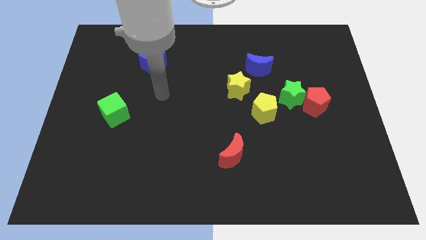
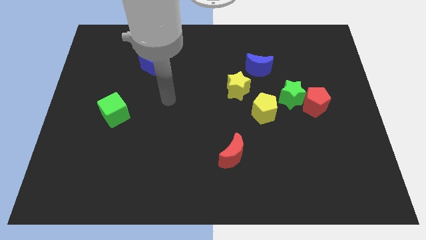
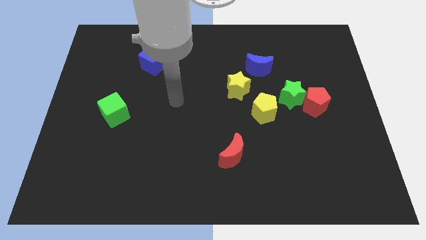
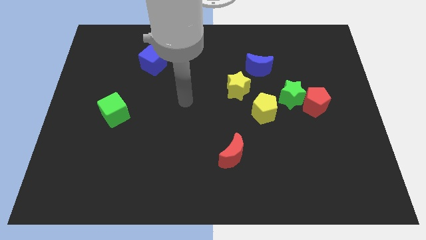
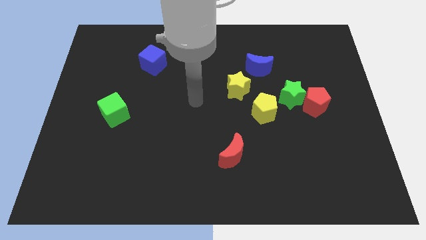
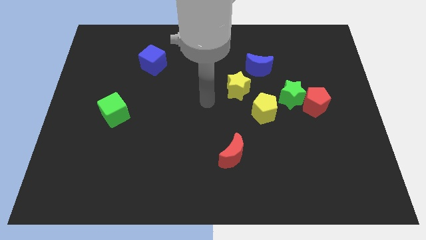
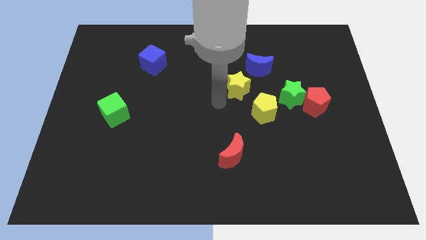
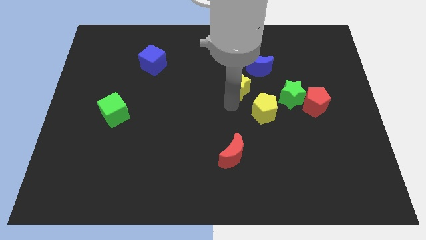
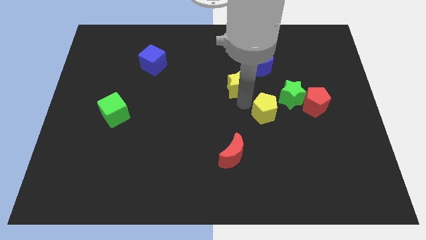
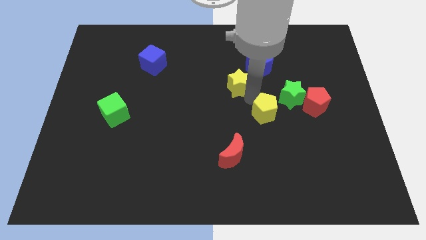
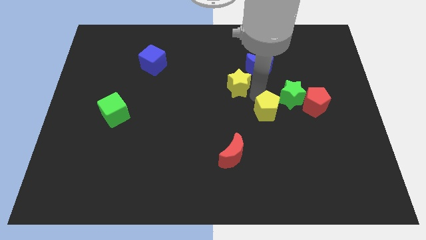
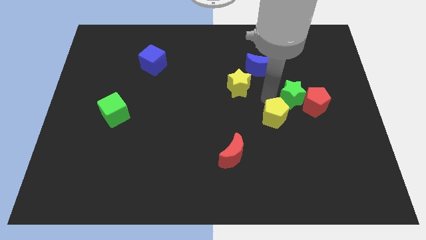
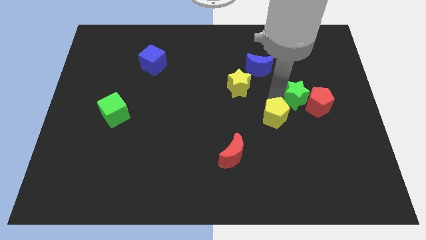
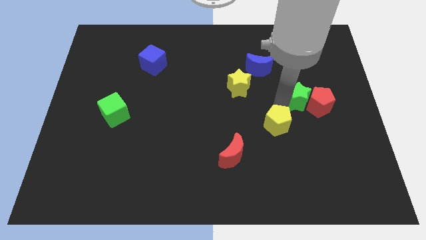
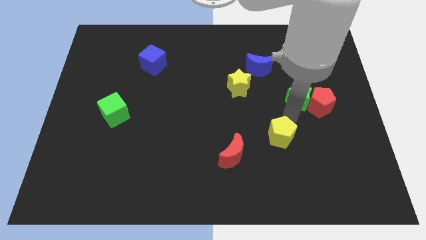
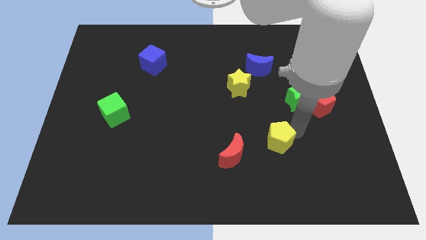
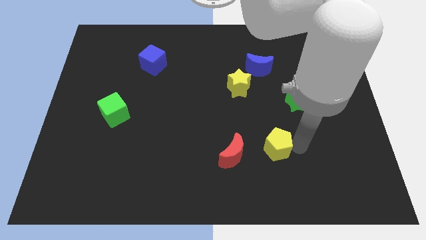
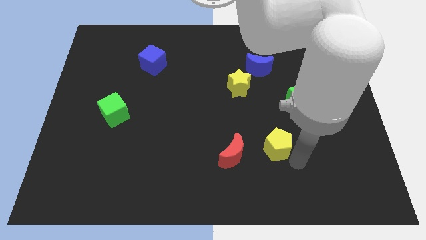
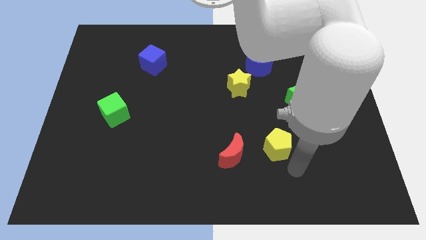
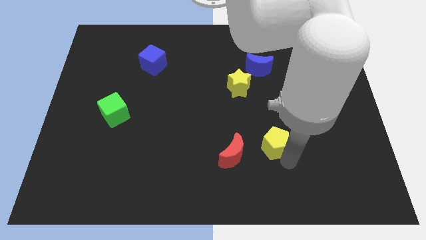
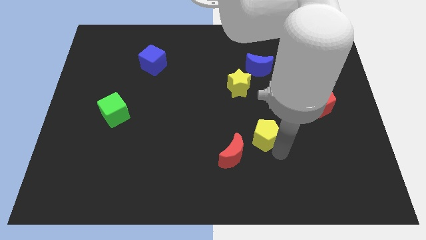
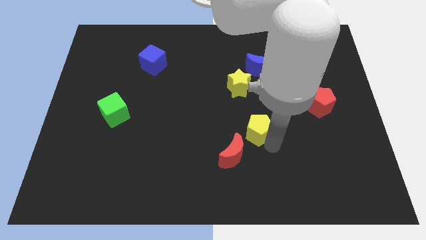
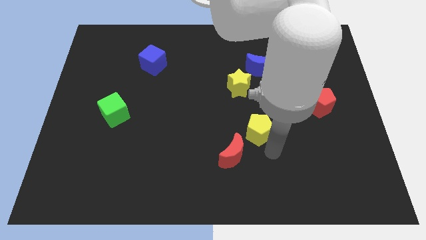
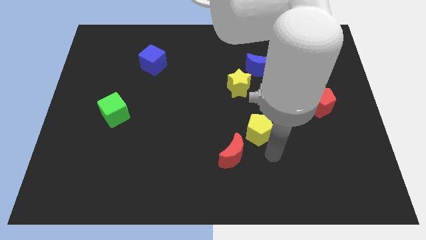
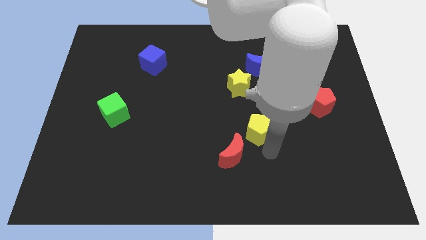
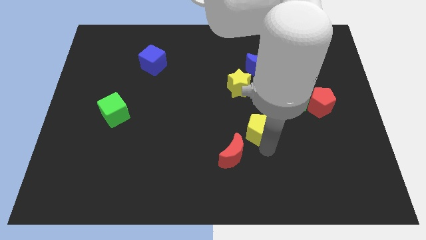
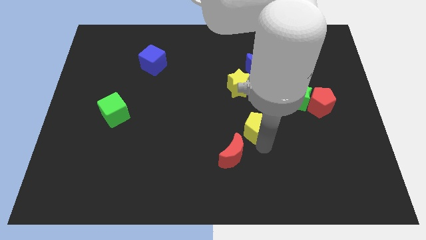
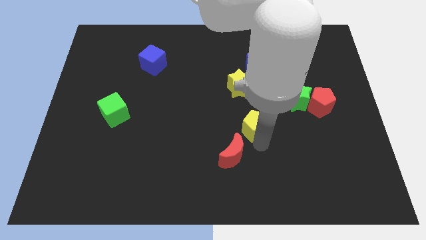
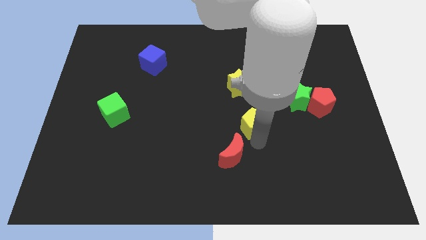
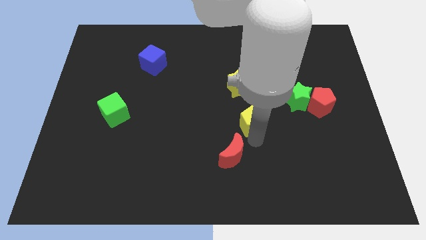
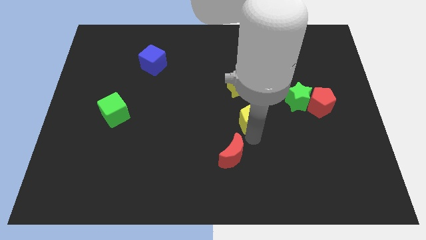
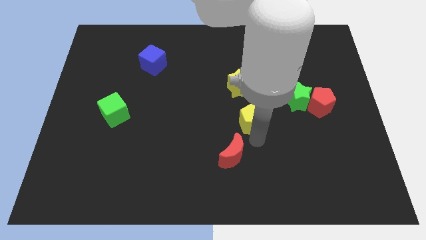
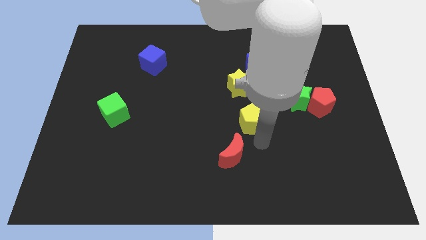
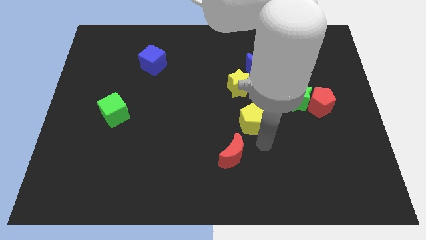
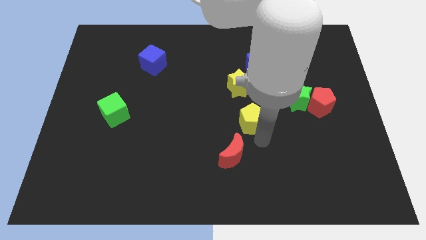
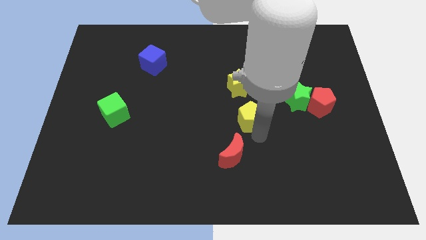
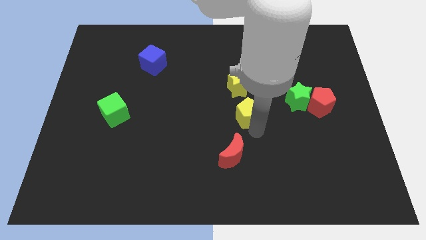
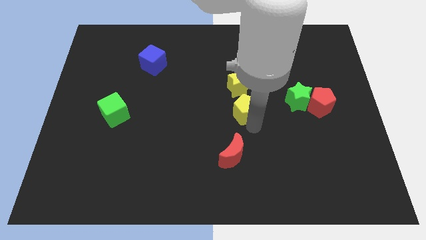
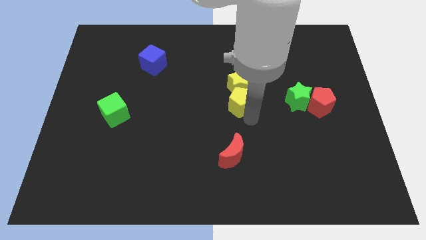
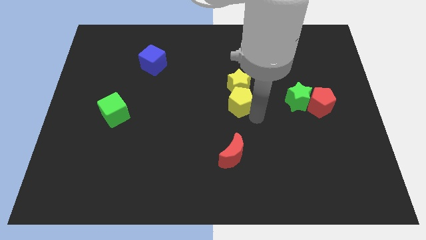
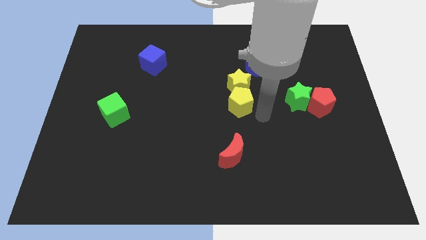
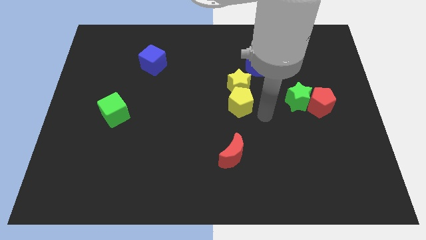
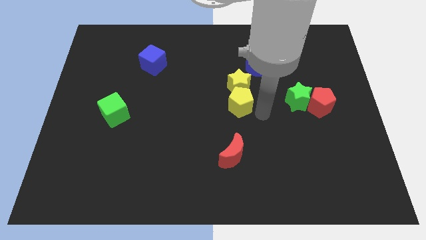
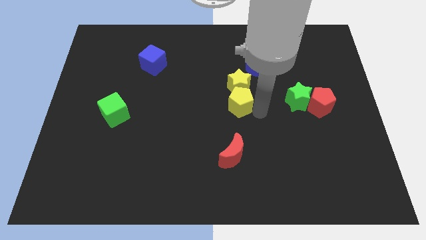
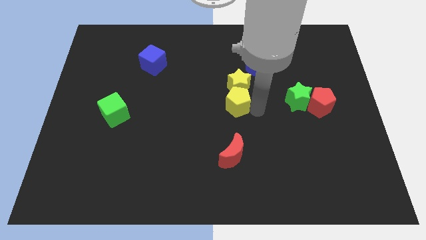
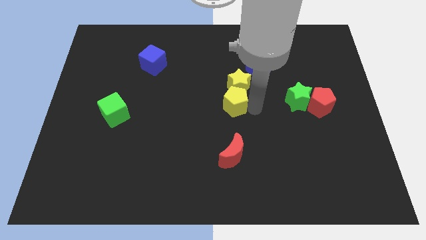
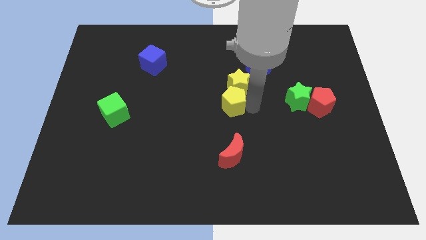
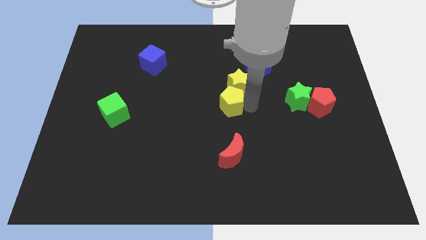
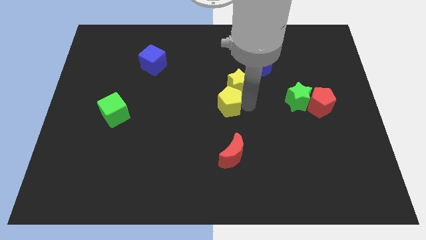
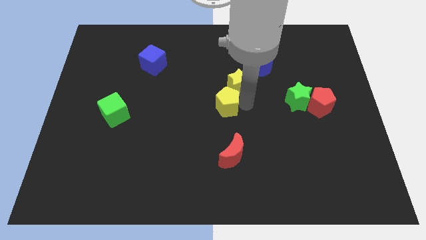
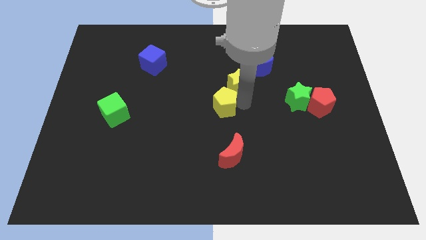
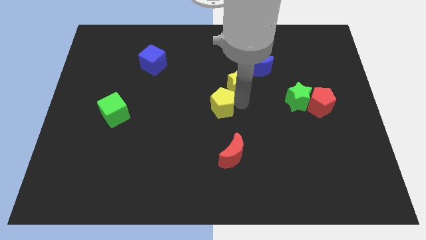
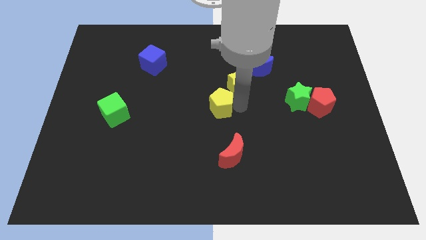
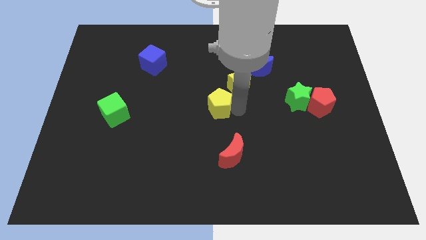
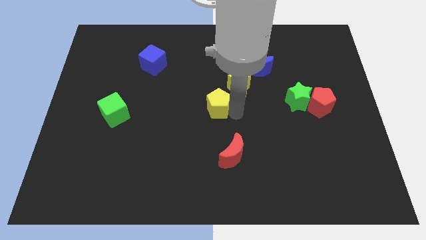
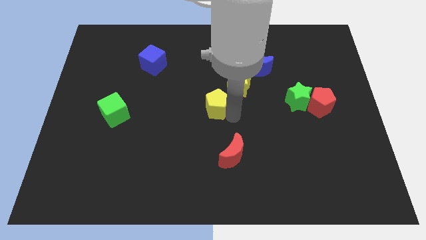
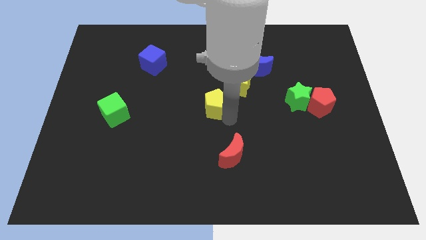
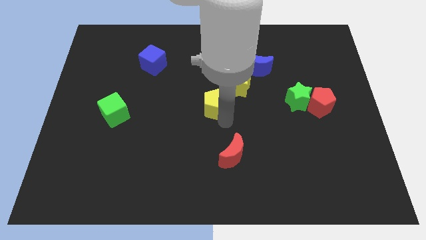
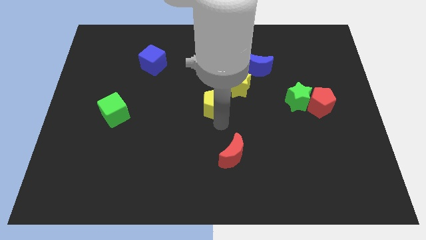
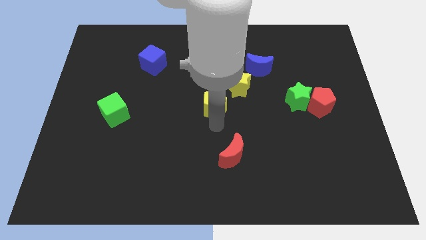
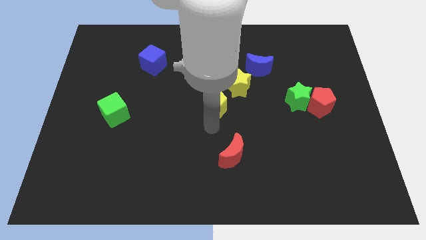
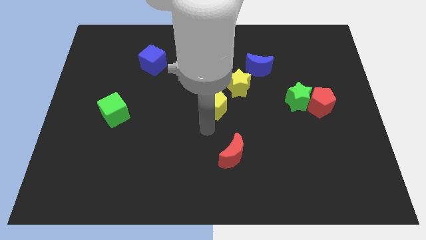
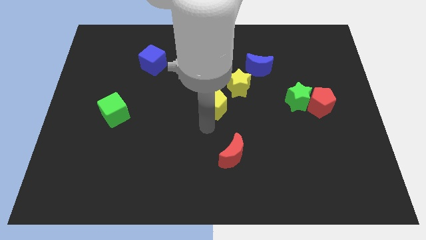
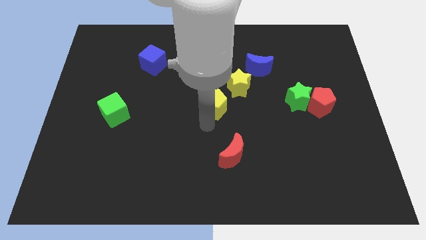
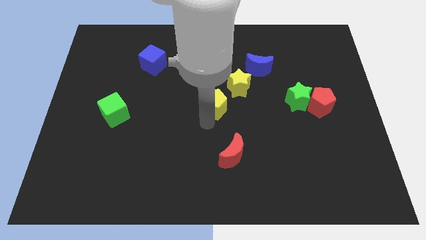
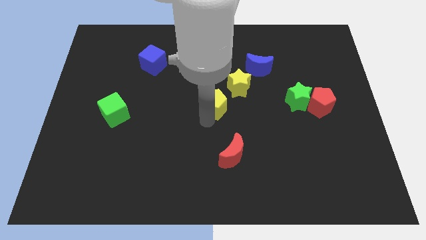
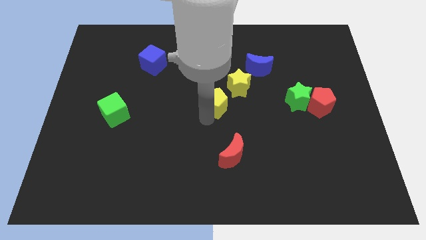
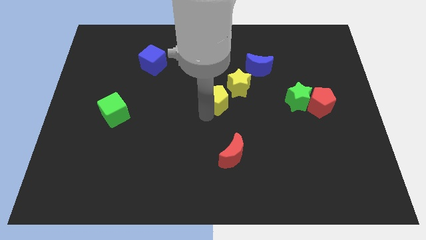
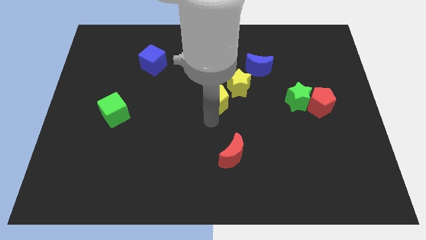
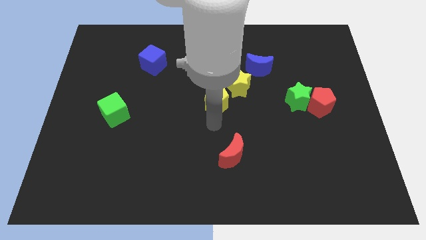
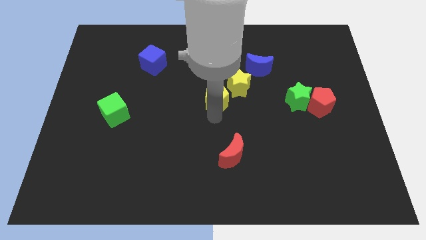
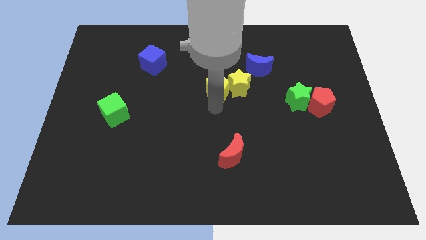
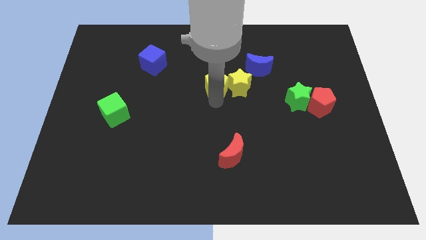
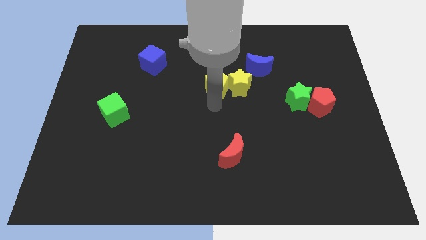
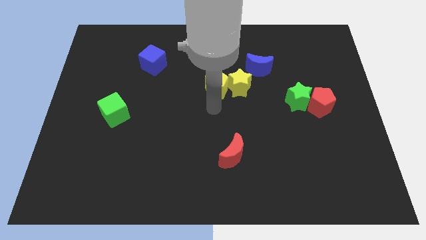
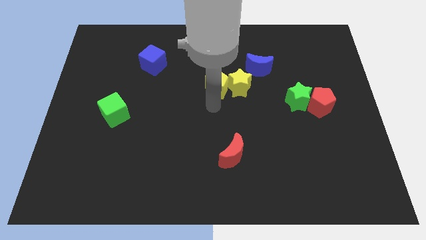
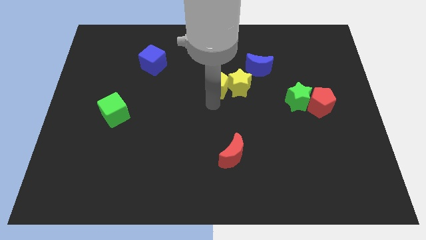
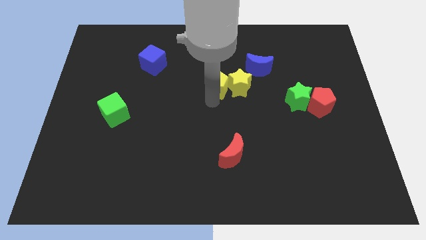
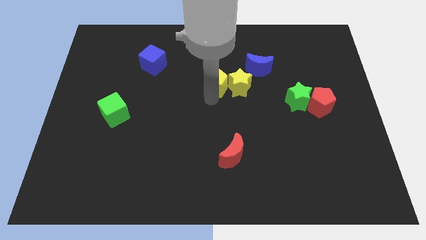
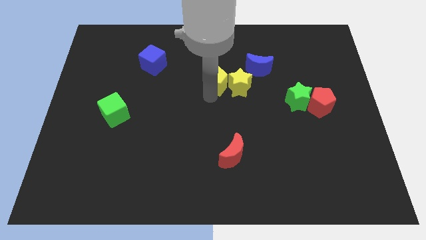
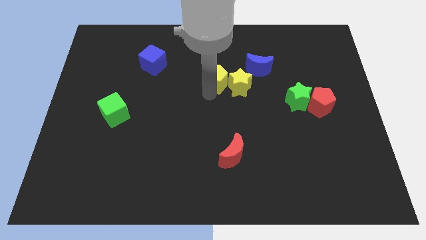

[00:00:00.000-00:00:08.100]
push the yellow pentagon to the left of the blue moon
